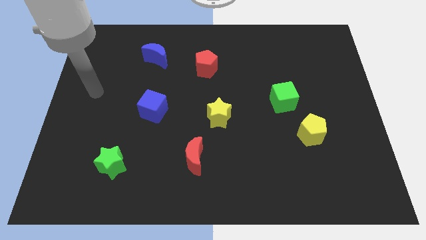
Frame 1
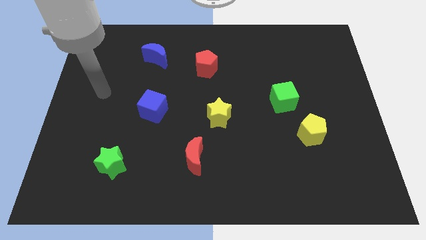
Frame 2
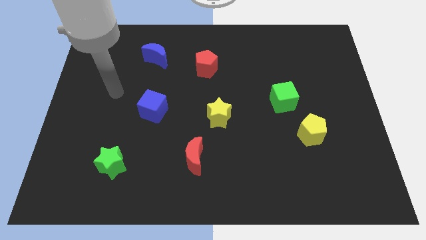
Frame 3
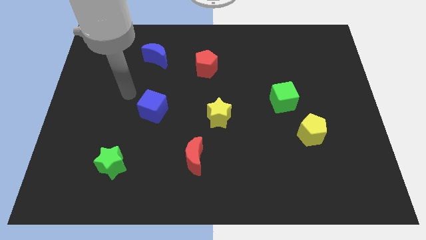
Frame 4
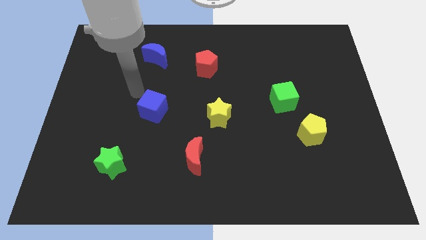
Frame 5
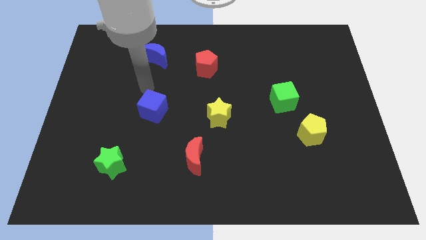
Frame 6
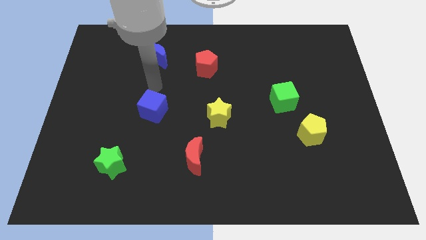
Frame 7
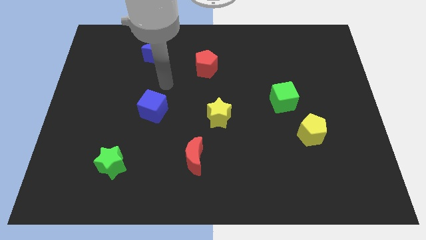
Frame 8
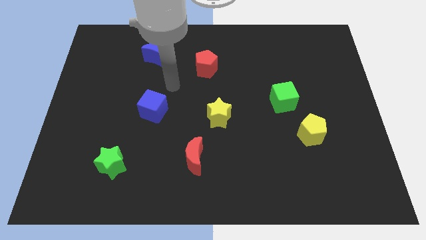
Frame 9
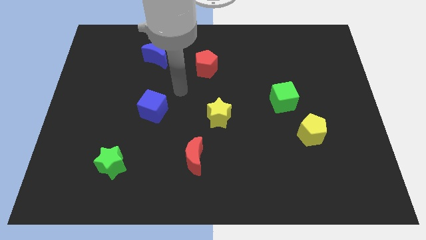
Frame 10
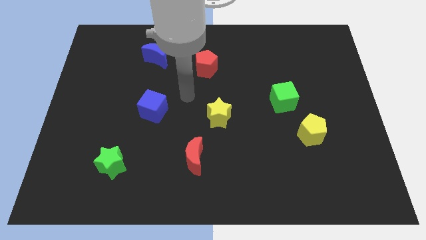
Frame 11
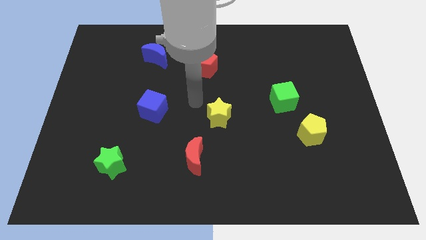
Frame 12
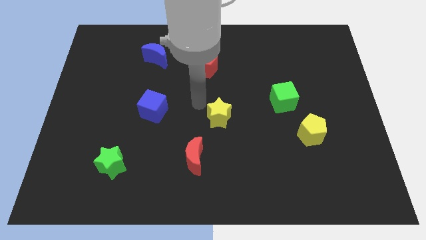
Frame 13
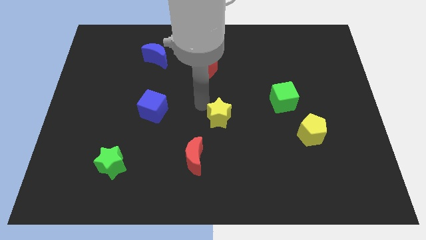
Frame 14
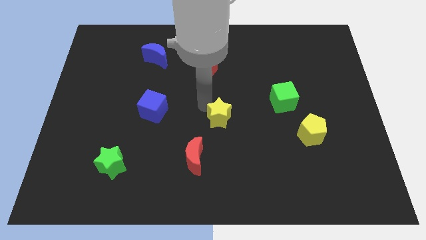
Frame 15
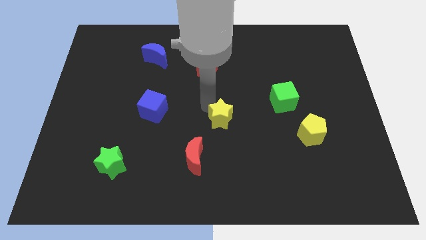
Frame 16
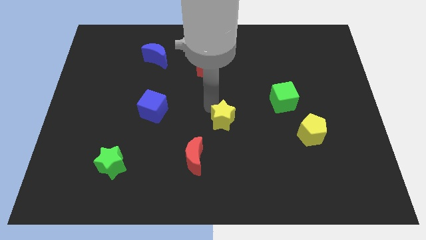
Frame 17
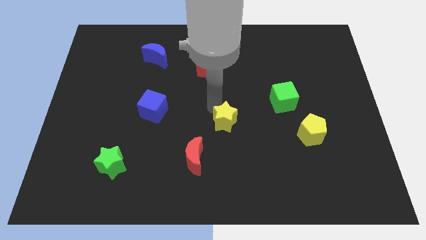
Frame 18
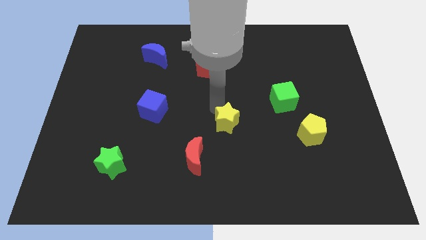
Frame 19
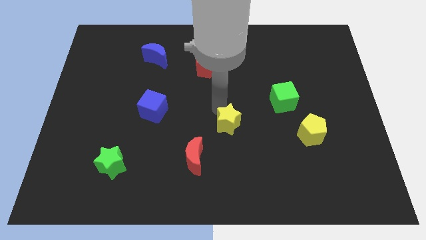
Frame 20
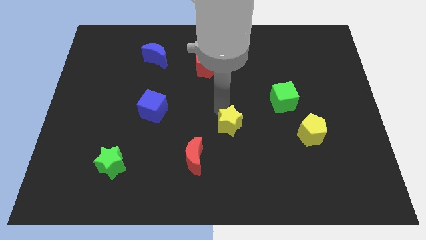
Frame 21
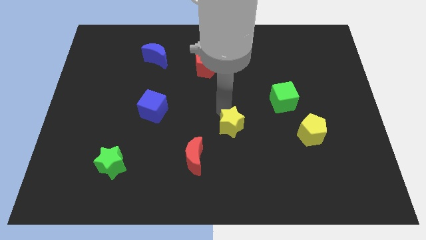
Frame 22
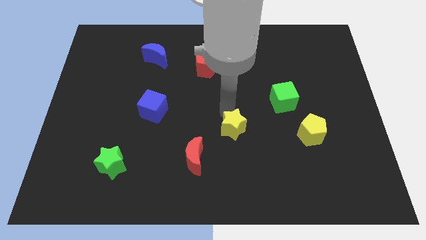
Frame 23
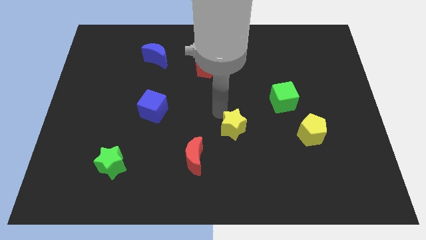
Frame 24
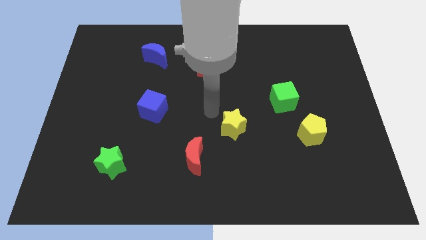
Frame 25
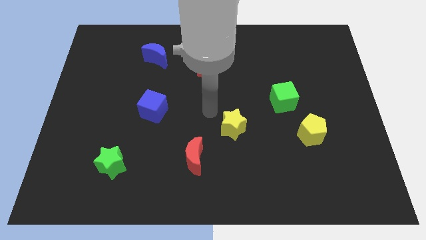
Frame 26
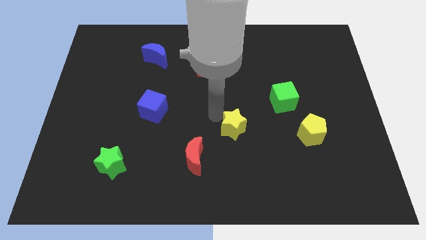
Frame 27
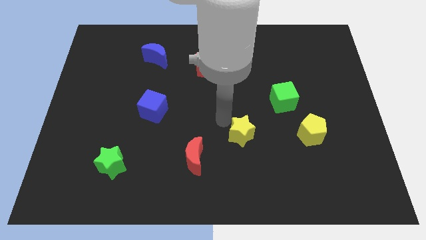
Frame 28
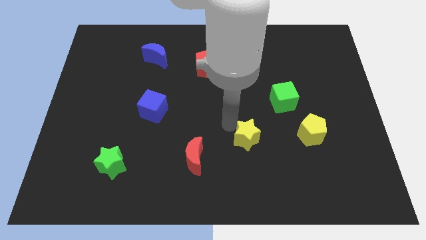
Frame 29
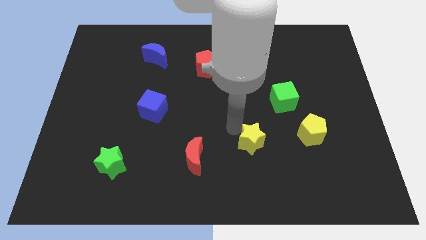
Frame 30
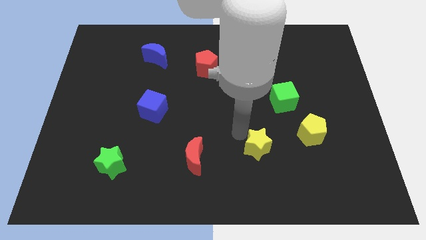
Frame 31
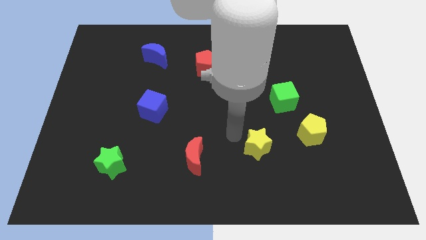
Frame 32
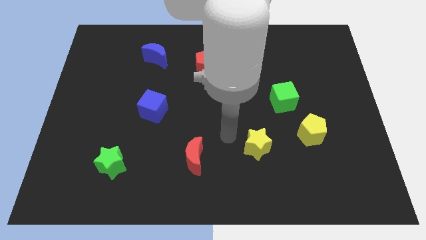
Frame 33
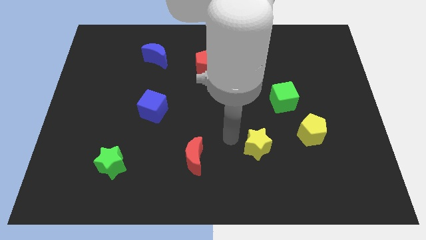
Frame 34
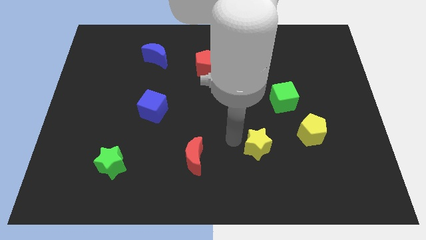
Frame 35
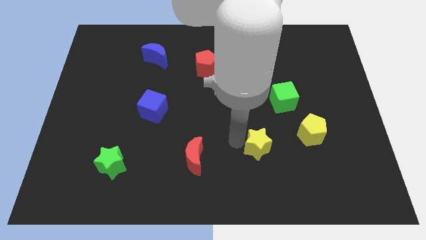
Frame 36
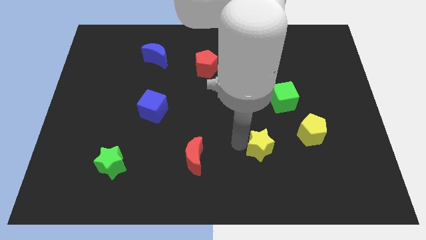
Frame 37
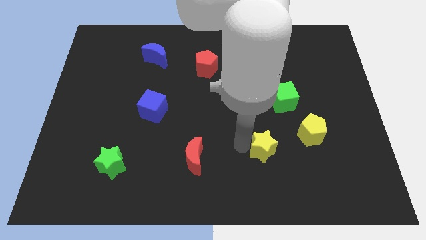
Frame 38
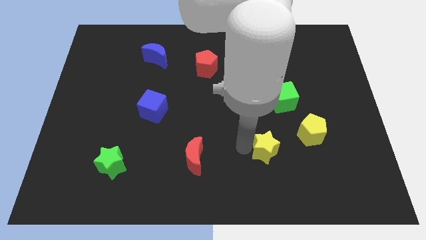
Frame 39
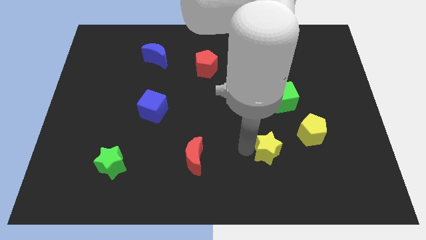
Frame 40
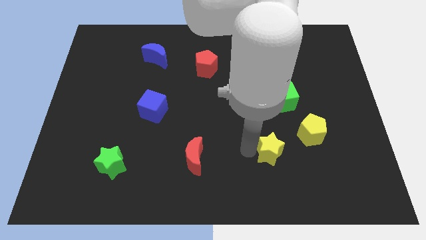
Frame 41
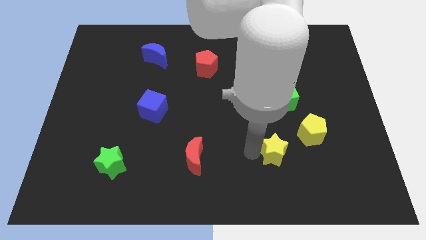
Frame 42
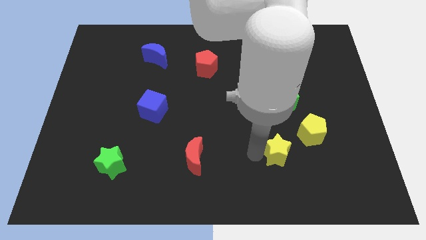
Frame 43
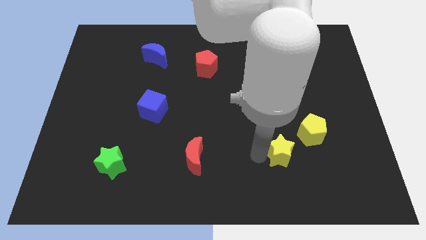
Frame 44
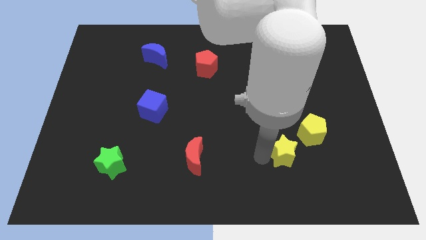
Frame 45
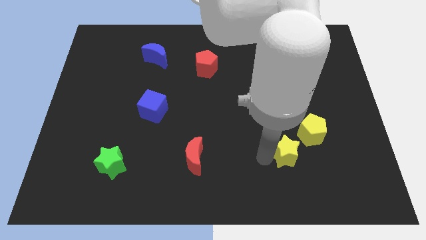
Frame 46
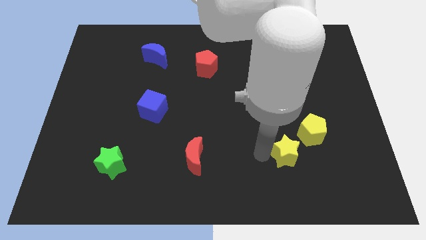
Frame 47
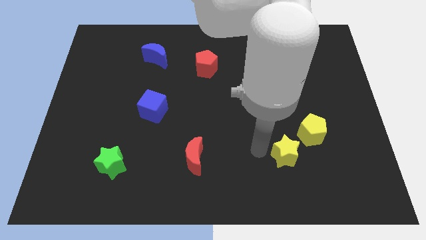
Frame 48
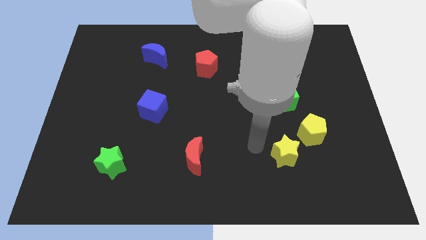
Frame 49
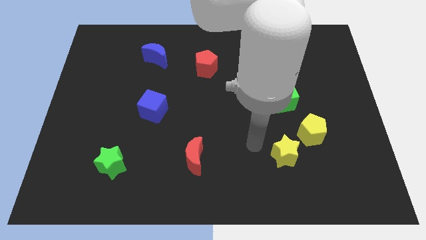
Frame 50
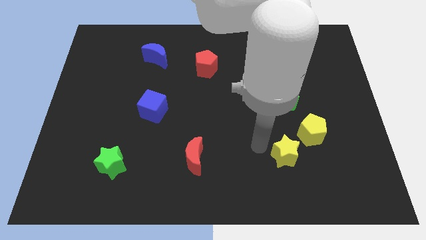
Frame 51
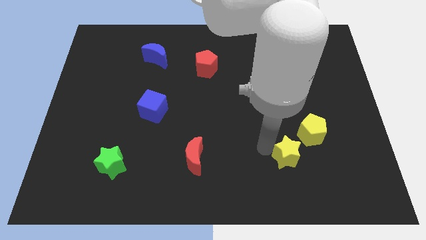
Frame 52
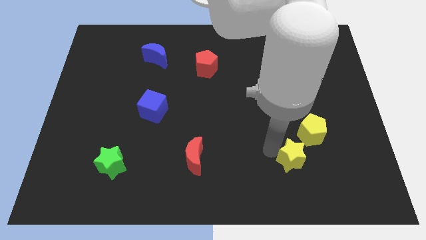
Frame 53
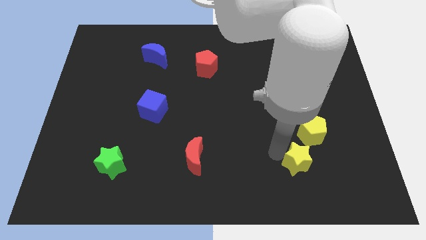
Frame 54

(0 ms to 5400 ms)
move the yellow star to the bottom of the yellow pentagon

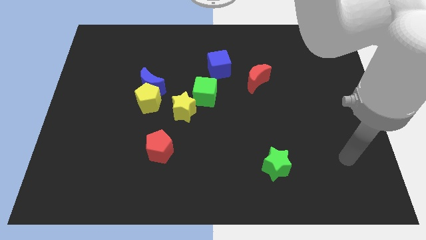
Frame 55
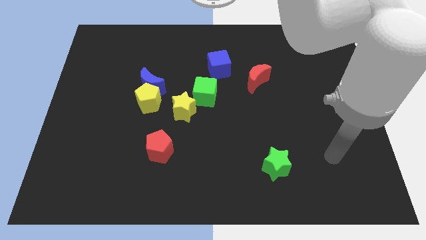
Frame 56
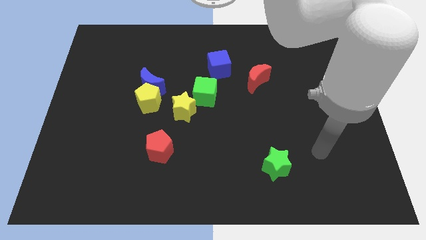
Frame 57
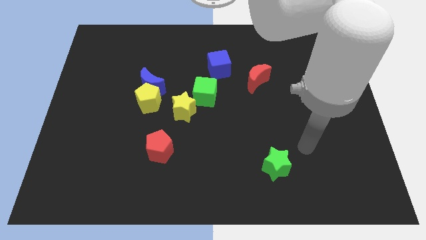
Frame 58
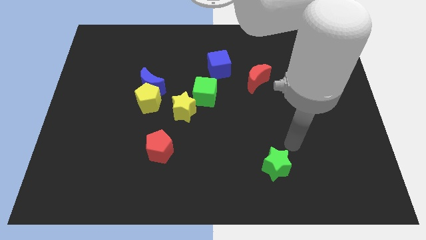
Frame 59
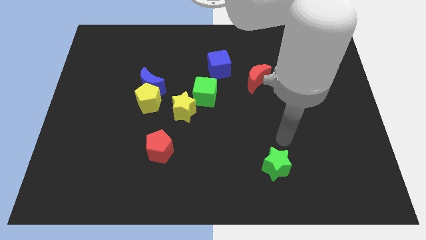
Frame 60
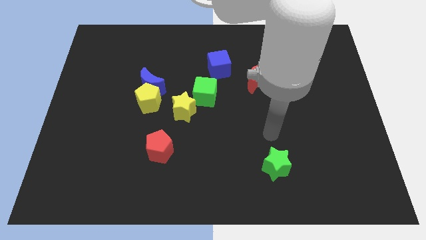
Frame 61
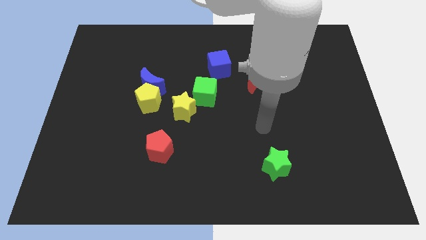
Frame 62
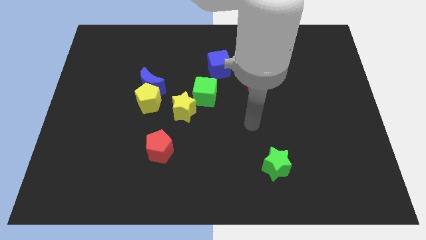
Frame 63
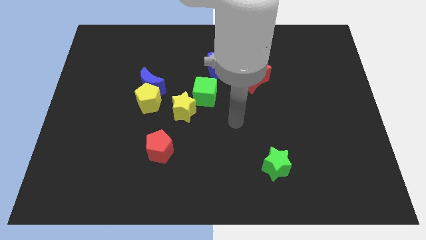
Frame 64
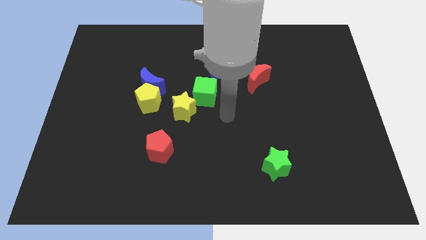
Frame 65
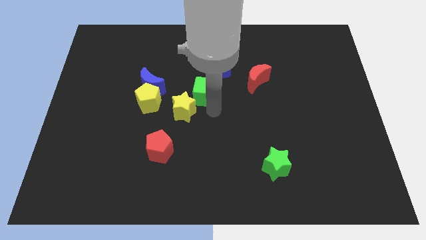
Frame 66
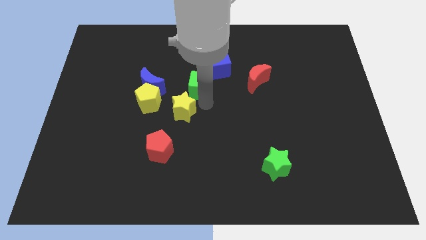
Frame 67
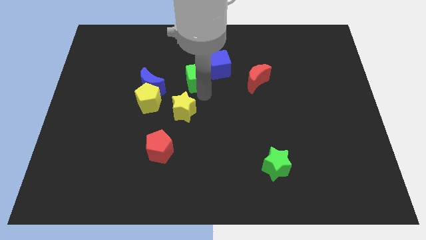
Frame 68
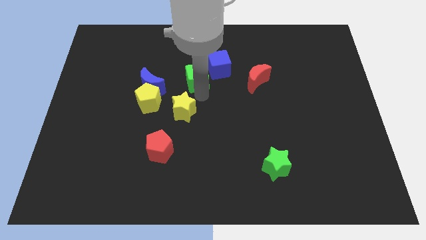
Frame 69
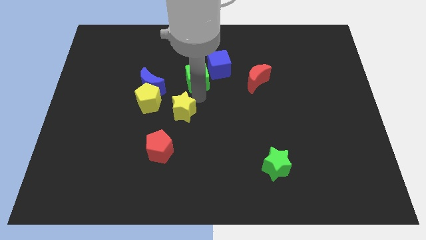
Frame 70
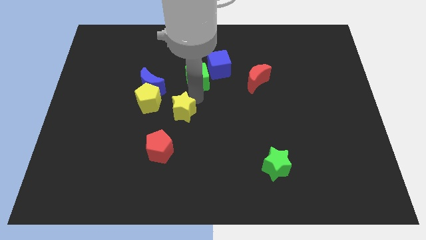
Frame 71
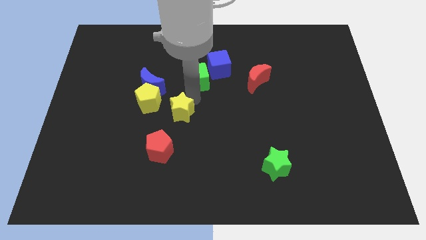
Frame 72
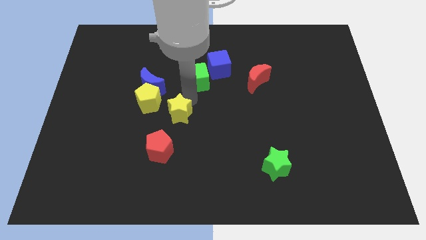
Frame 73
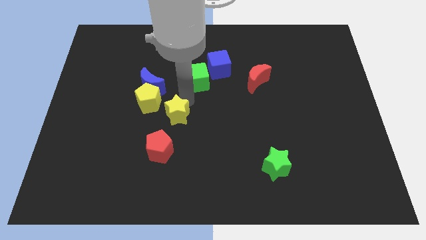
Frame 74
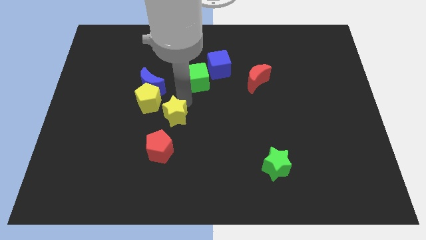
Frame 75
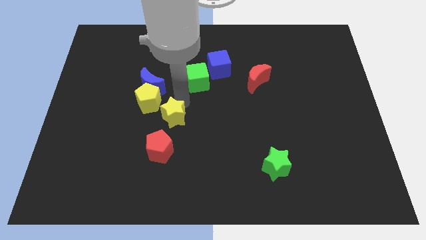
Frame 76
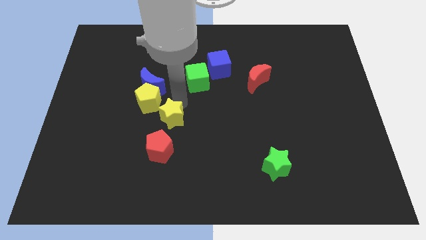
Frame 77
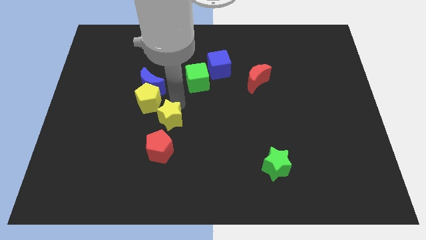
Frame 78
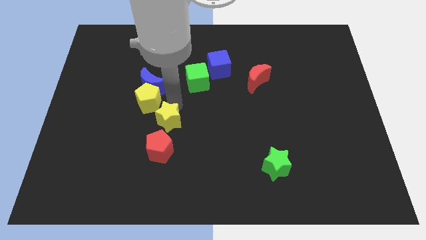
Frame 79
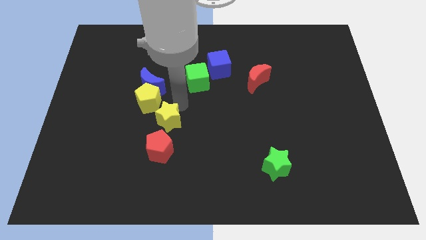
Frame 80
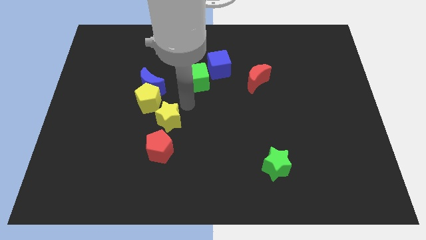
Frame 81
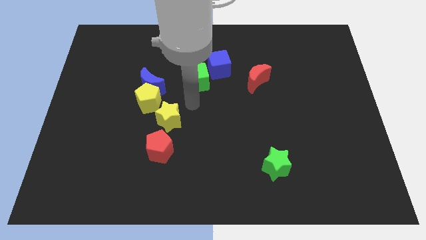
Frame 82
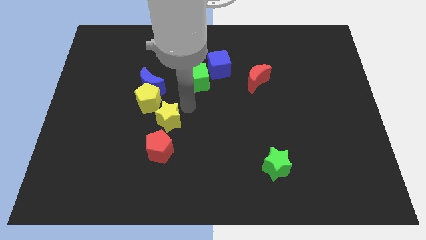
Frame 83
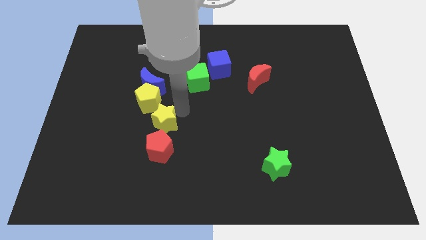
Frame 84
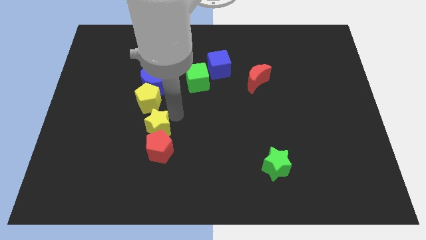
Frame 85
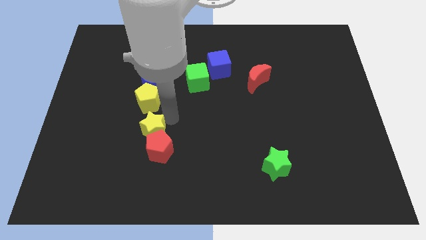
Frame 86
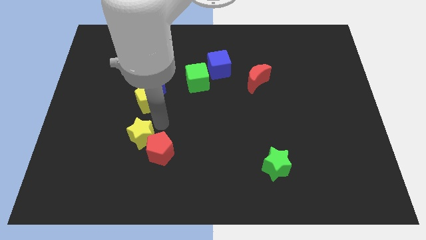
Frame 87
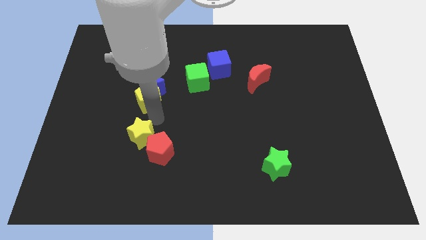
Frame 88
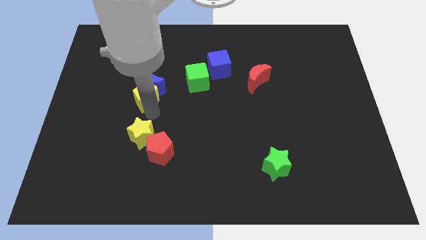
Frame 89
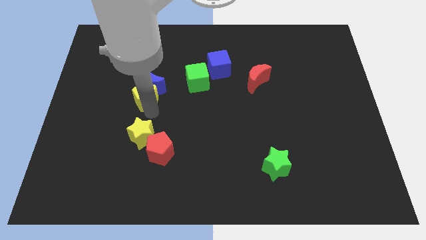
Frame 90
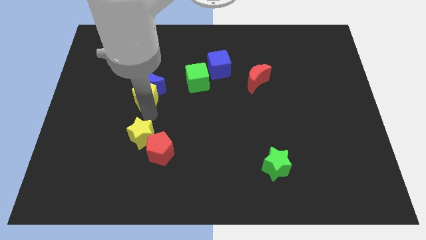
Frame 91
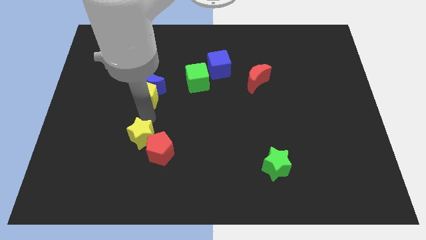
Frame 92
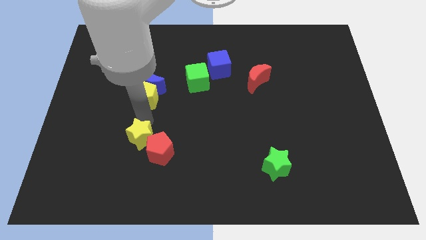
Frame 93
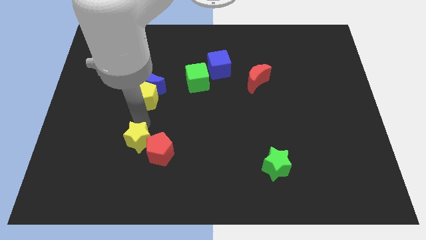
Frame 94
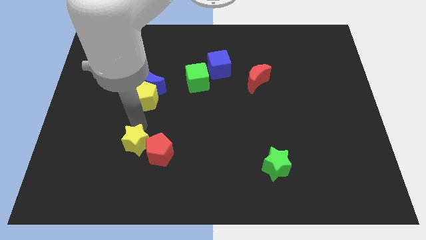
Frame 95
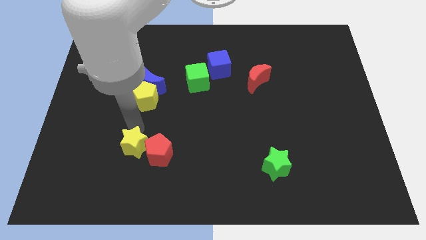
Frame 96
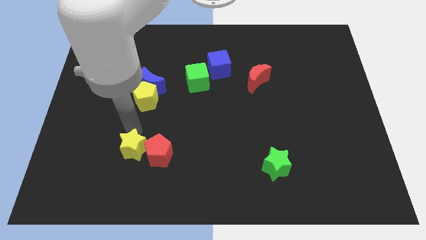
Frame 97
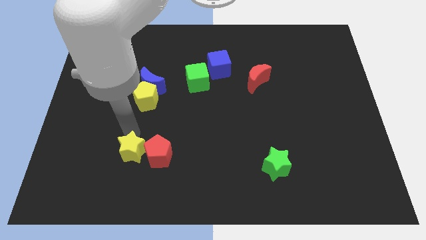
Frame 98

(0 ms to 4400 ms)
push the yellow star diagonally down and to the left of the red pentagon
